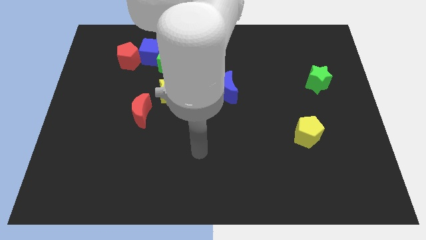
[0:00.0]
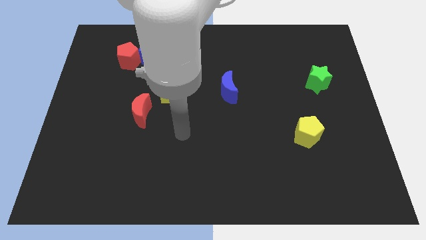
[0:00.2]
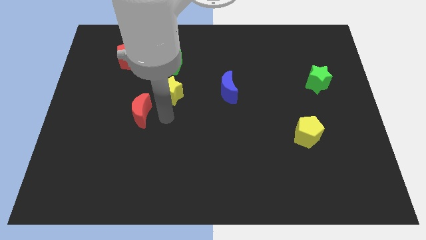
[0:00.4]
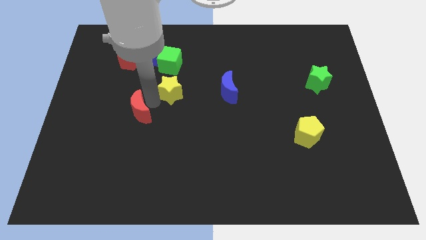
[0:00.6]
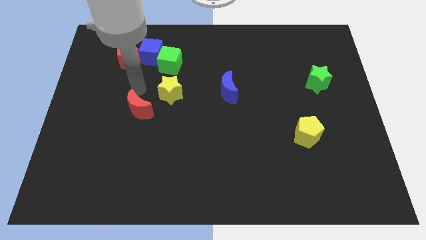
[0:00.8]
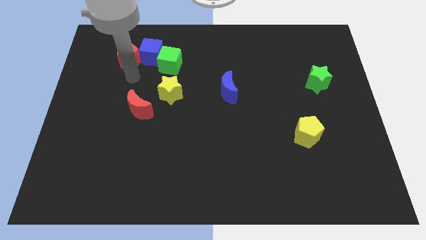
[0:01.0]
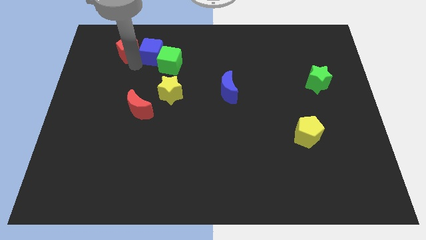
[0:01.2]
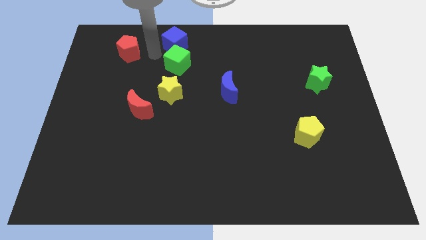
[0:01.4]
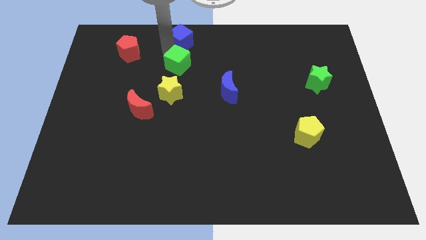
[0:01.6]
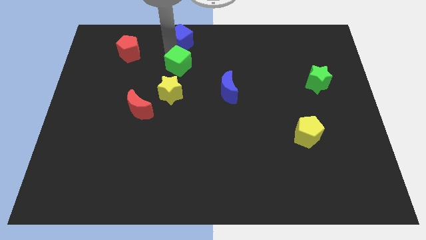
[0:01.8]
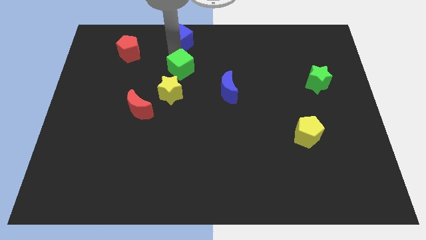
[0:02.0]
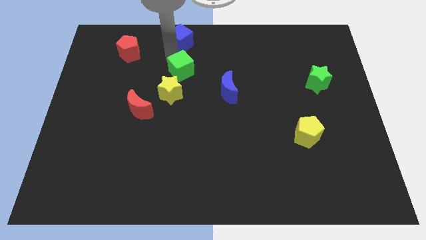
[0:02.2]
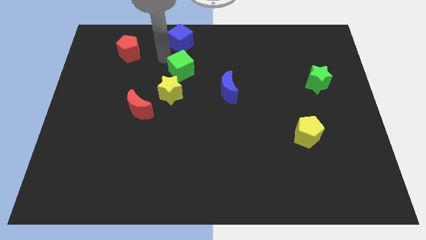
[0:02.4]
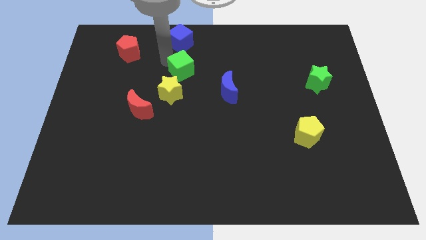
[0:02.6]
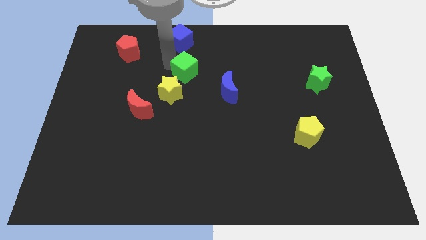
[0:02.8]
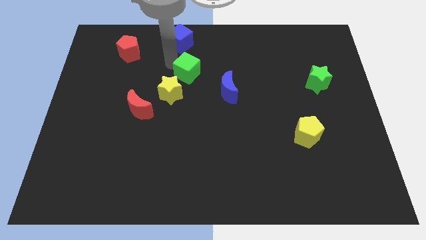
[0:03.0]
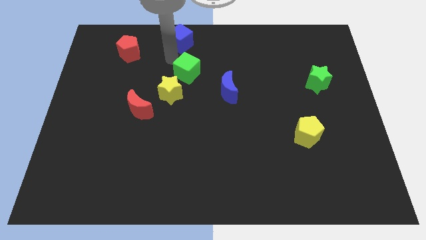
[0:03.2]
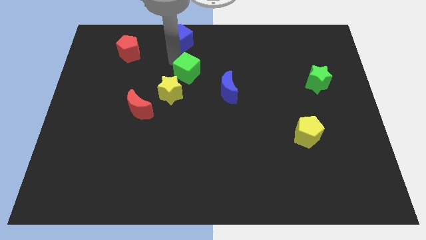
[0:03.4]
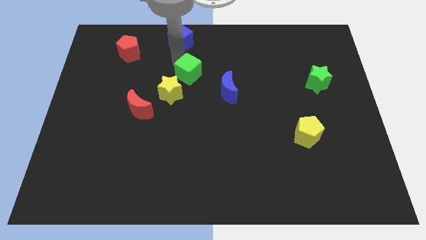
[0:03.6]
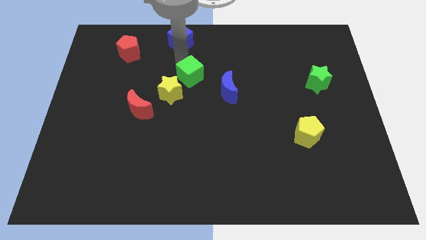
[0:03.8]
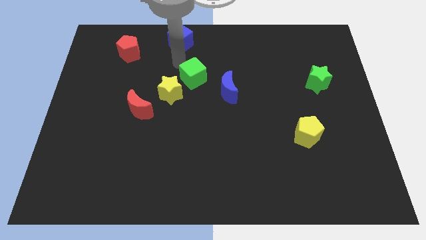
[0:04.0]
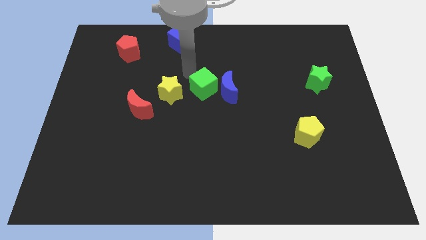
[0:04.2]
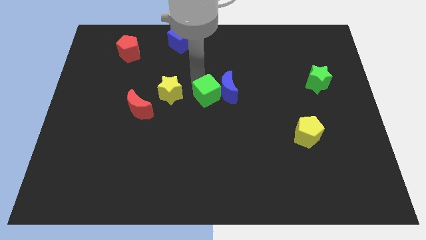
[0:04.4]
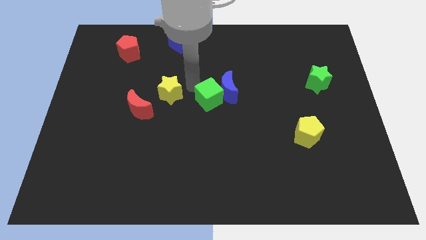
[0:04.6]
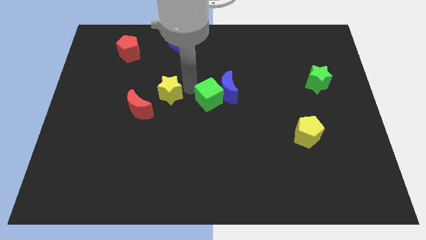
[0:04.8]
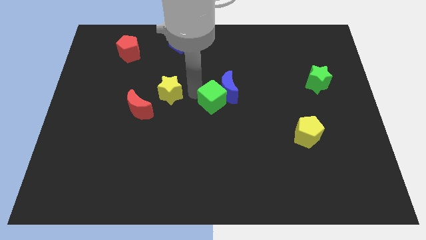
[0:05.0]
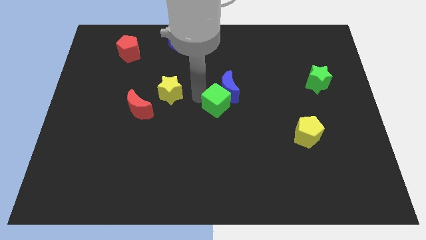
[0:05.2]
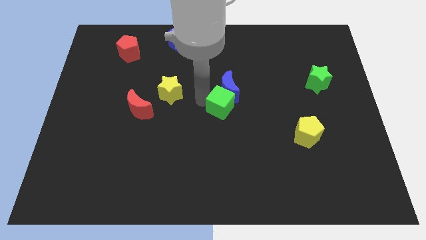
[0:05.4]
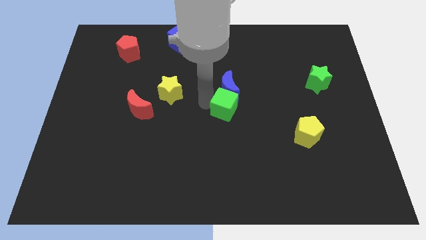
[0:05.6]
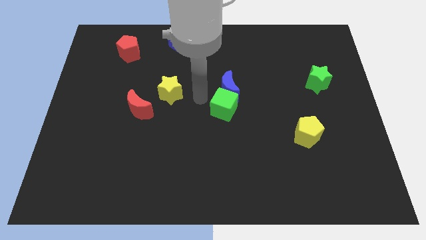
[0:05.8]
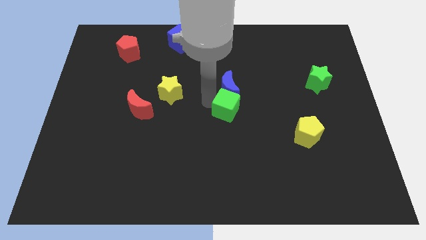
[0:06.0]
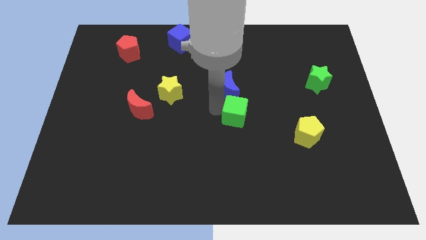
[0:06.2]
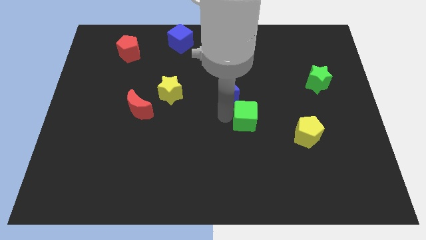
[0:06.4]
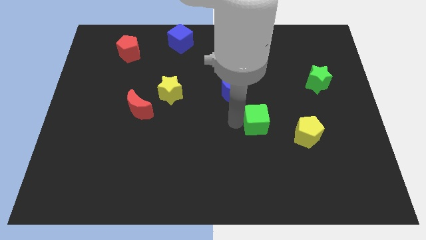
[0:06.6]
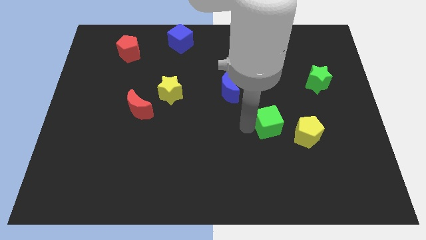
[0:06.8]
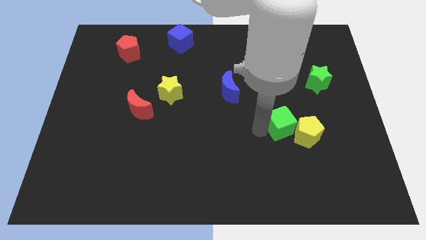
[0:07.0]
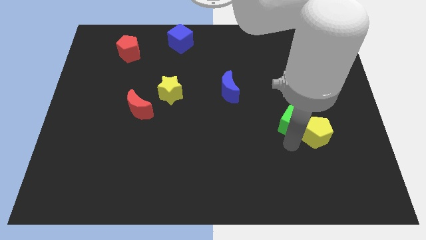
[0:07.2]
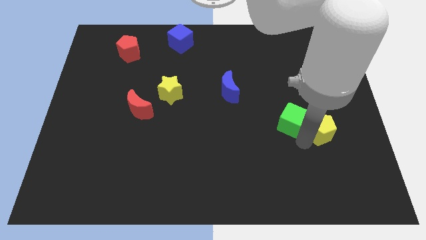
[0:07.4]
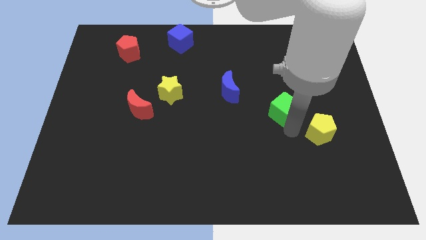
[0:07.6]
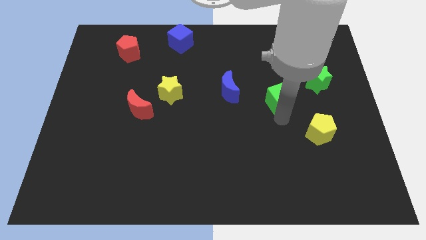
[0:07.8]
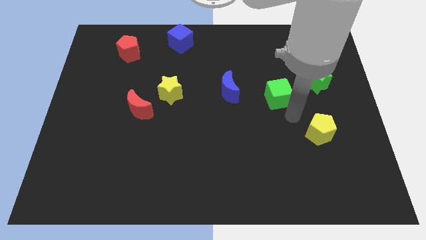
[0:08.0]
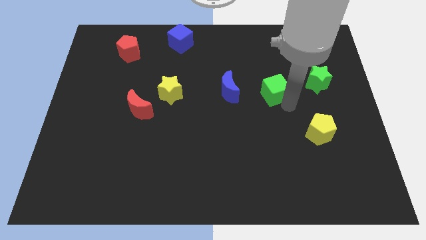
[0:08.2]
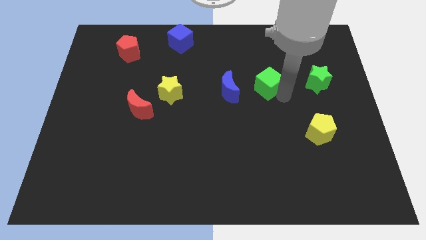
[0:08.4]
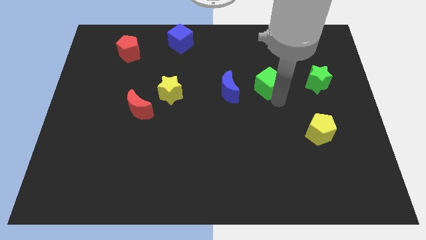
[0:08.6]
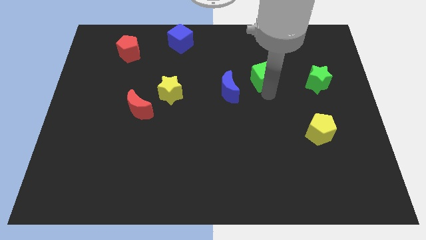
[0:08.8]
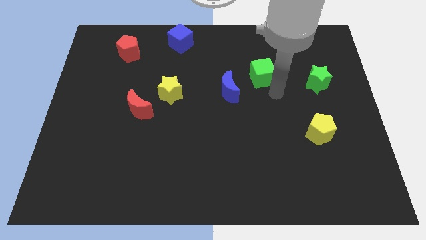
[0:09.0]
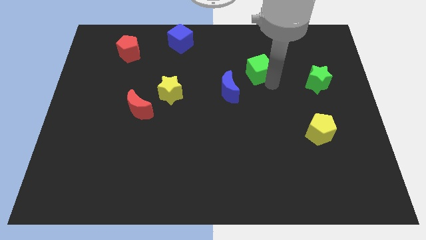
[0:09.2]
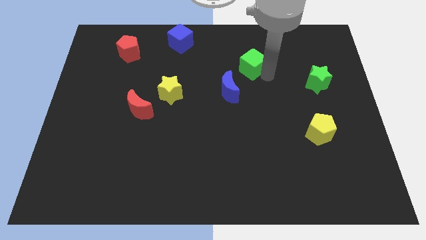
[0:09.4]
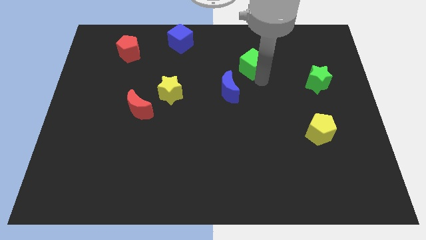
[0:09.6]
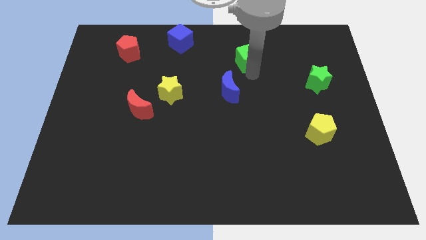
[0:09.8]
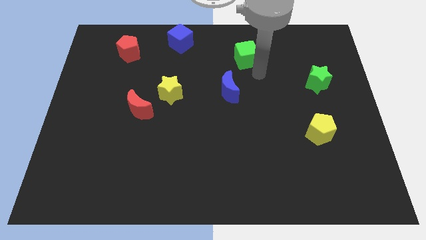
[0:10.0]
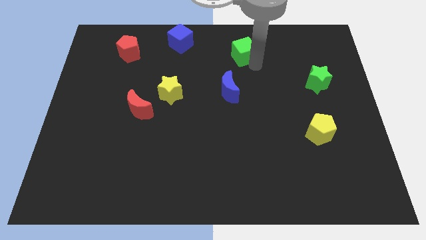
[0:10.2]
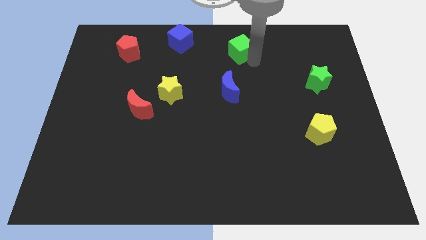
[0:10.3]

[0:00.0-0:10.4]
put the green cube to the top

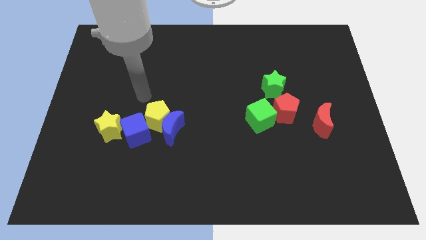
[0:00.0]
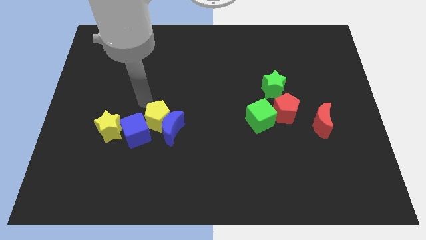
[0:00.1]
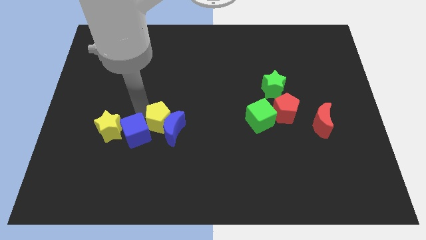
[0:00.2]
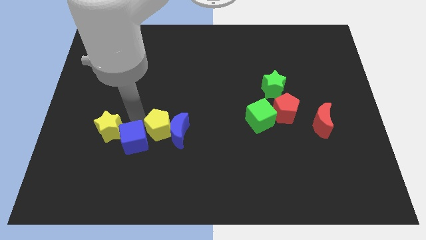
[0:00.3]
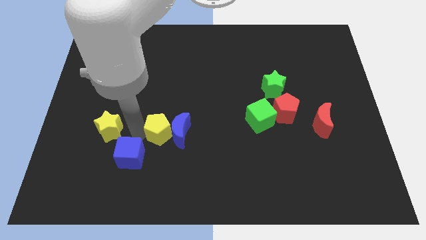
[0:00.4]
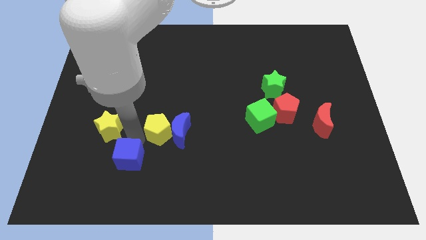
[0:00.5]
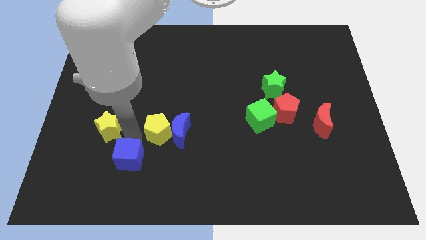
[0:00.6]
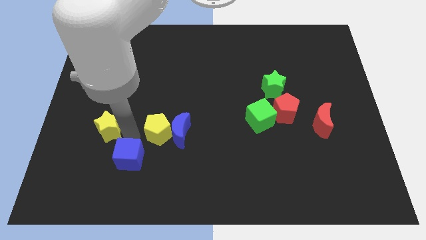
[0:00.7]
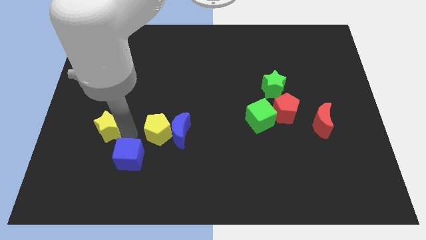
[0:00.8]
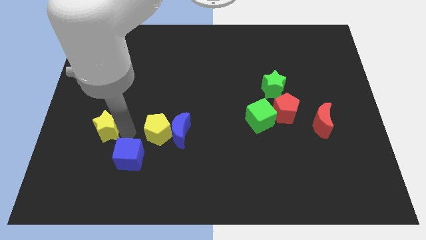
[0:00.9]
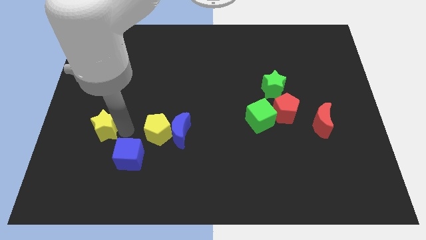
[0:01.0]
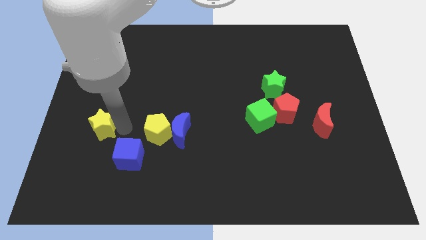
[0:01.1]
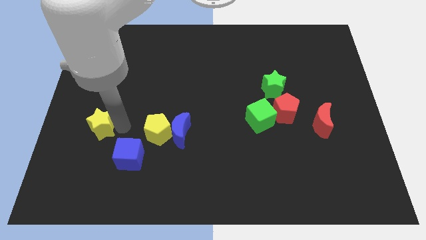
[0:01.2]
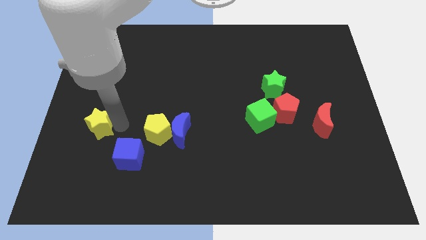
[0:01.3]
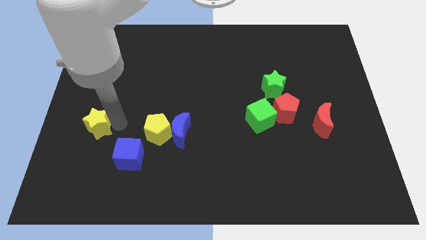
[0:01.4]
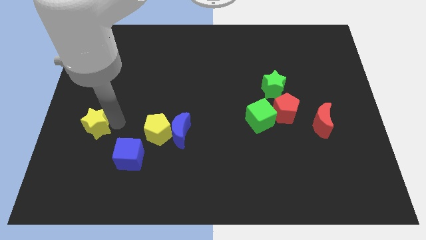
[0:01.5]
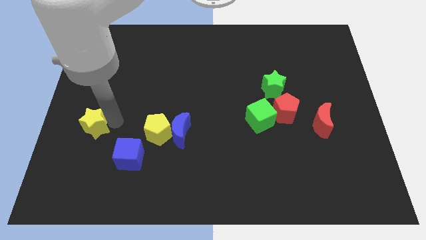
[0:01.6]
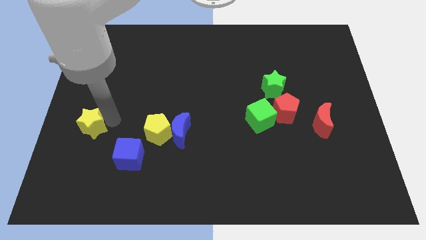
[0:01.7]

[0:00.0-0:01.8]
slide the yellow star to the left side of the board
